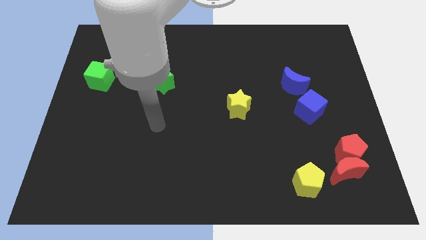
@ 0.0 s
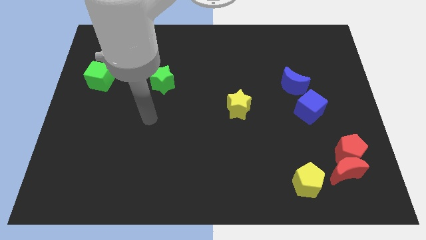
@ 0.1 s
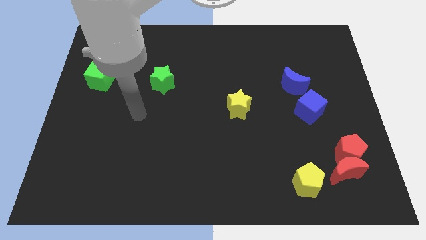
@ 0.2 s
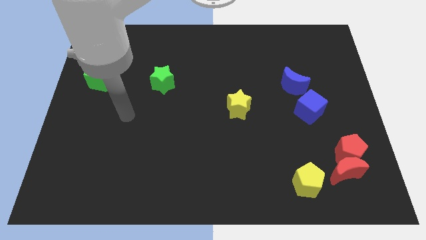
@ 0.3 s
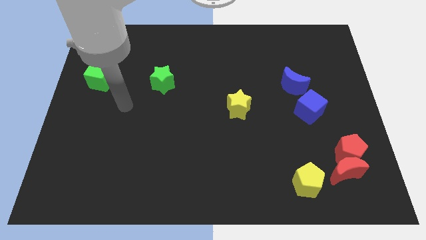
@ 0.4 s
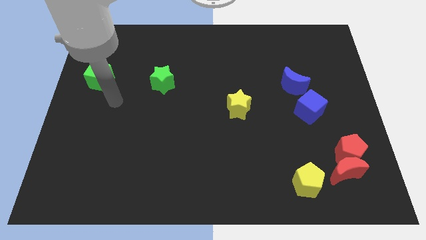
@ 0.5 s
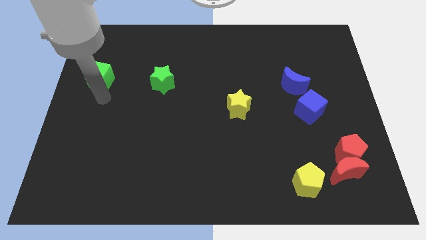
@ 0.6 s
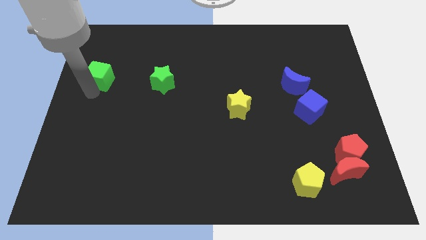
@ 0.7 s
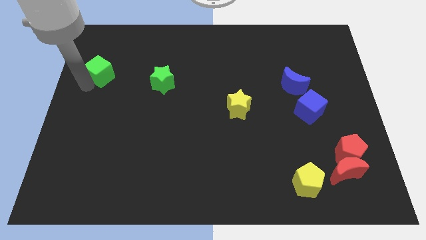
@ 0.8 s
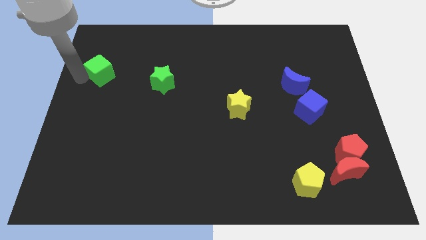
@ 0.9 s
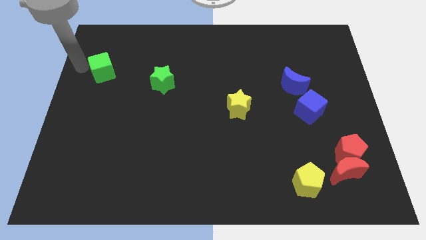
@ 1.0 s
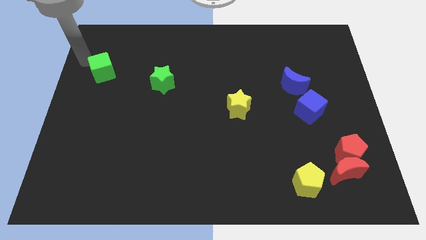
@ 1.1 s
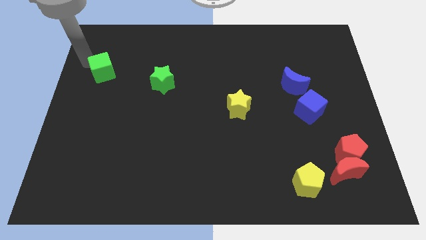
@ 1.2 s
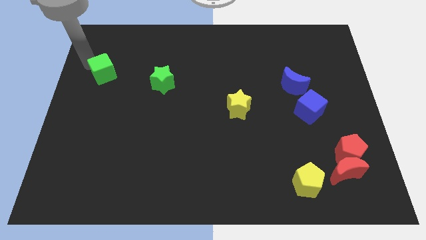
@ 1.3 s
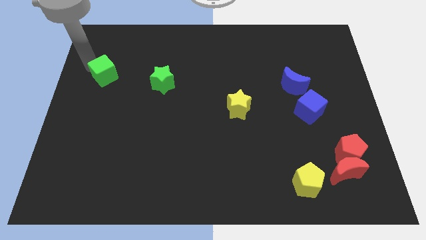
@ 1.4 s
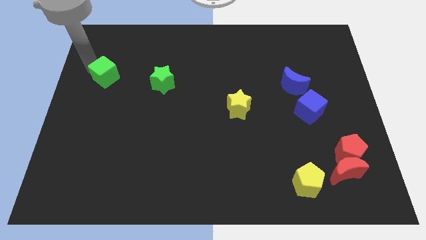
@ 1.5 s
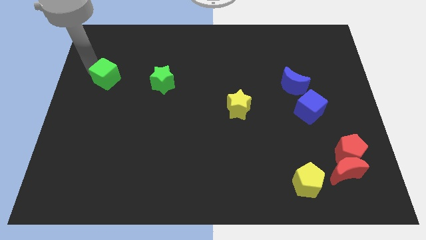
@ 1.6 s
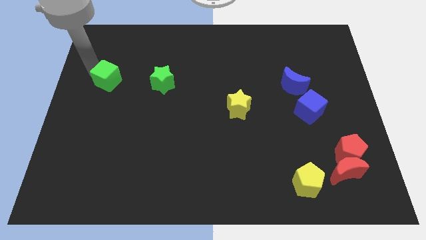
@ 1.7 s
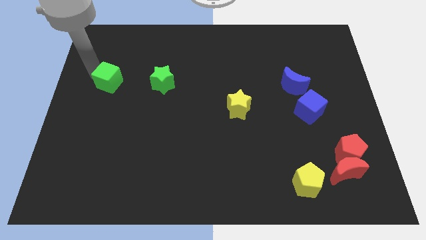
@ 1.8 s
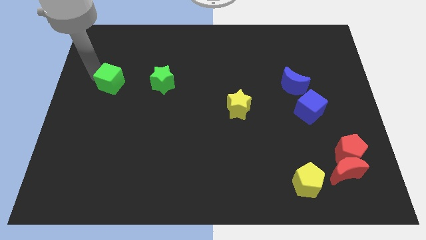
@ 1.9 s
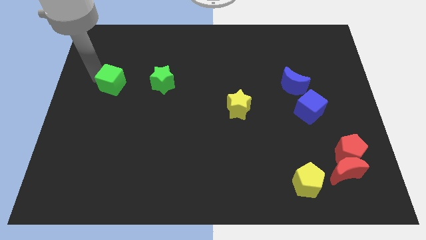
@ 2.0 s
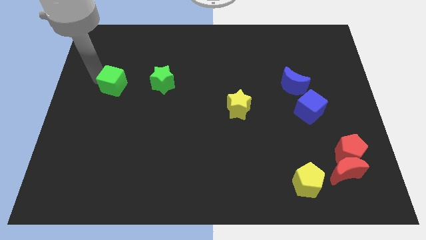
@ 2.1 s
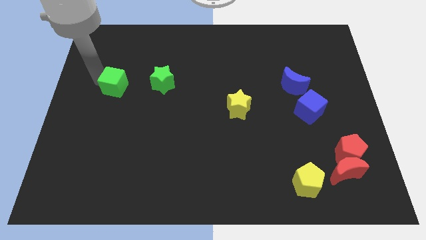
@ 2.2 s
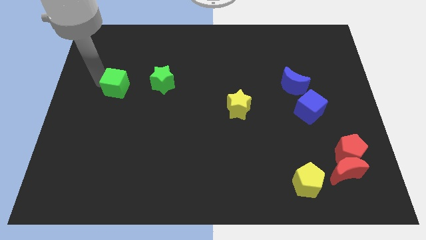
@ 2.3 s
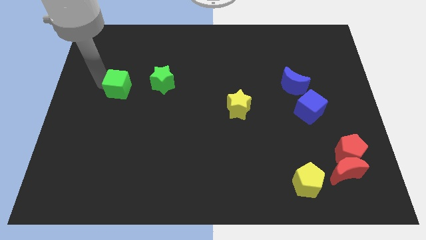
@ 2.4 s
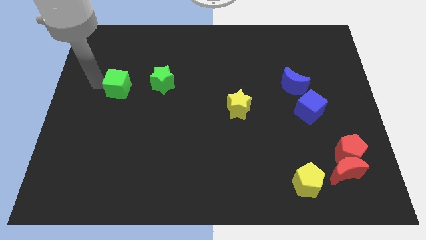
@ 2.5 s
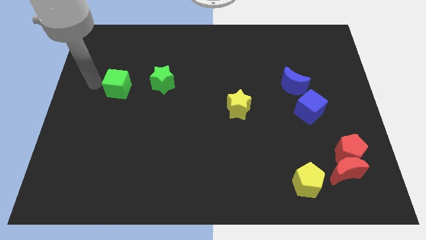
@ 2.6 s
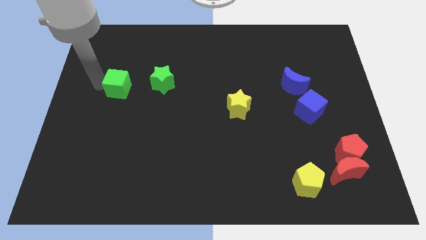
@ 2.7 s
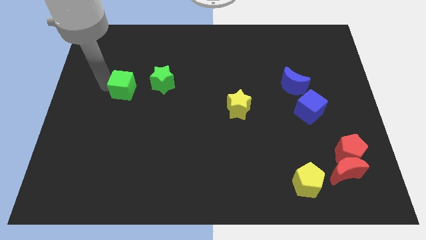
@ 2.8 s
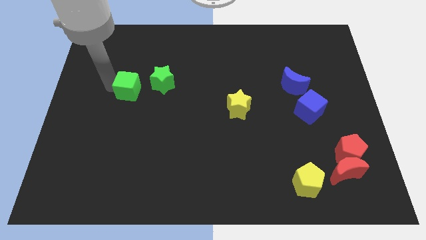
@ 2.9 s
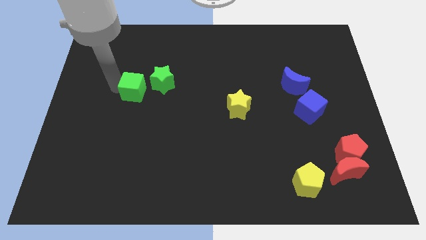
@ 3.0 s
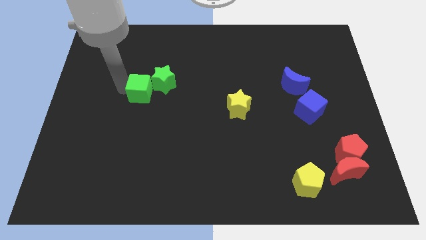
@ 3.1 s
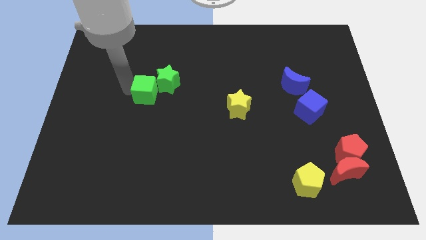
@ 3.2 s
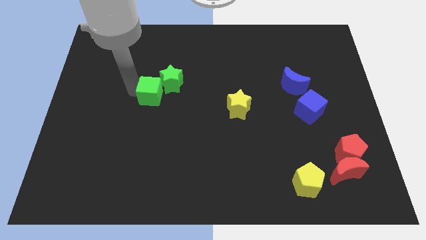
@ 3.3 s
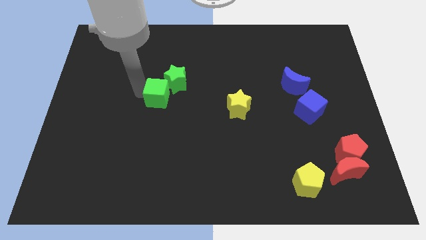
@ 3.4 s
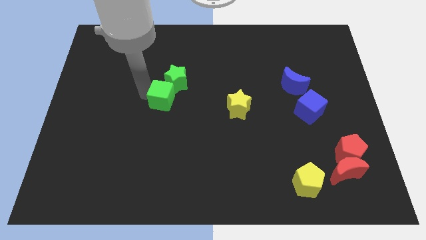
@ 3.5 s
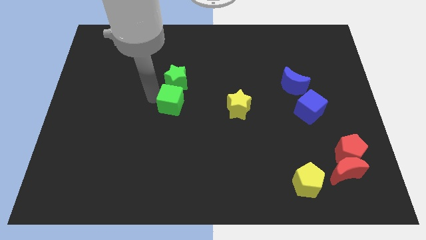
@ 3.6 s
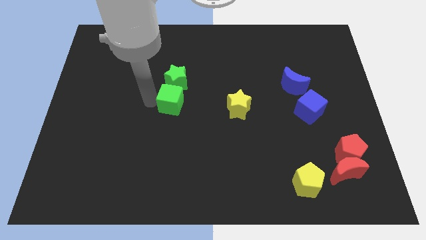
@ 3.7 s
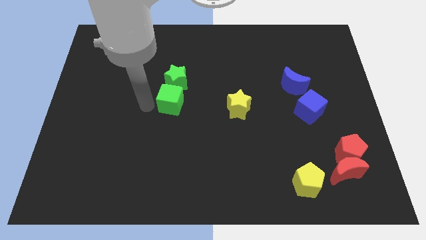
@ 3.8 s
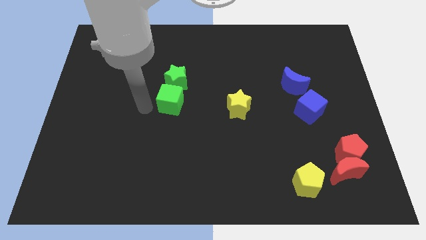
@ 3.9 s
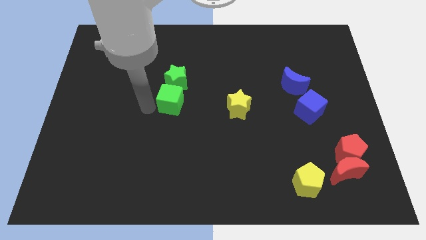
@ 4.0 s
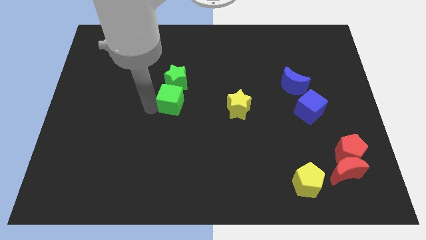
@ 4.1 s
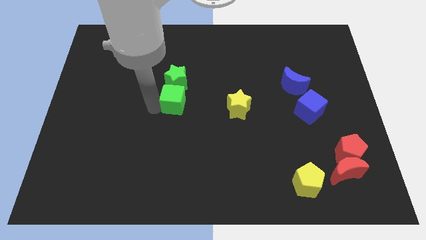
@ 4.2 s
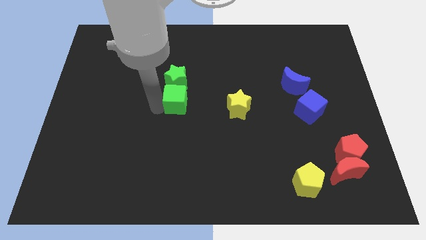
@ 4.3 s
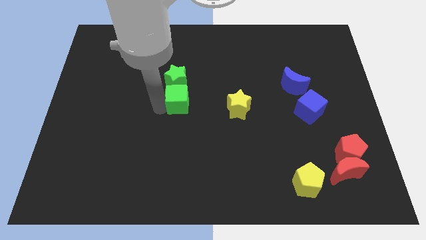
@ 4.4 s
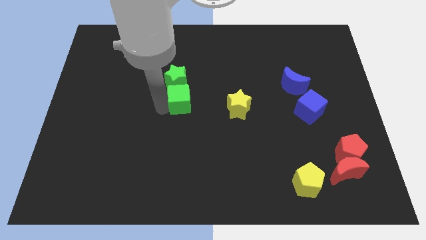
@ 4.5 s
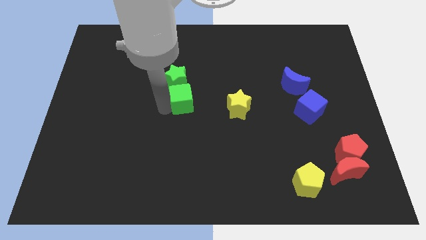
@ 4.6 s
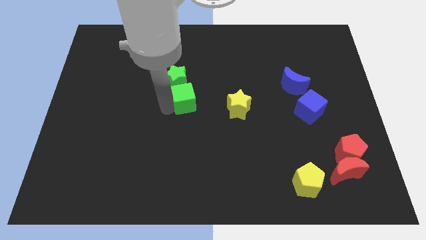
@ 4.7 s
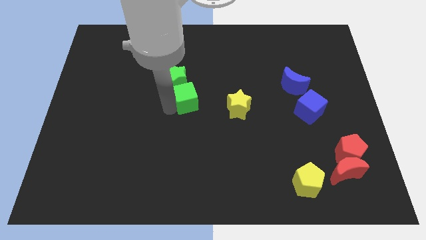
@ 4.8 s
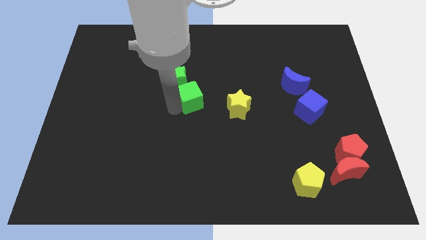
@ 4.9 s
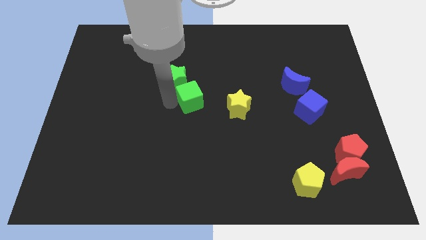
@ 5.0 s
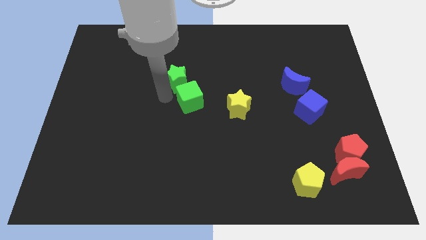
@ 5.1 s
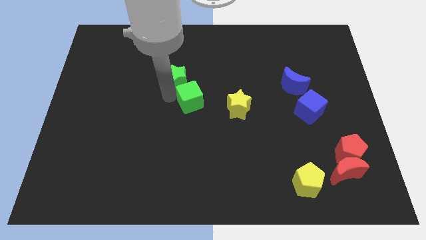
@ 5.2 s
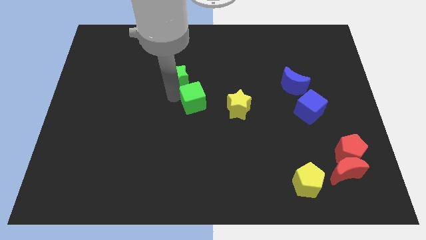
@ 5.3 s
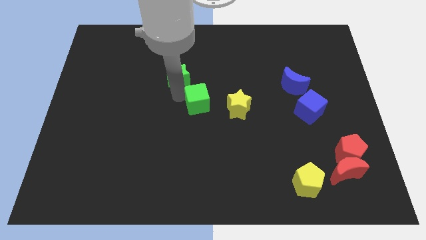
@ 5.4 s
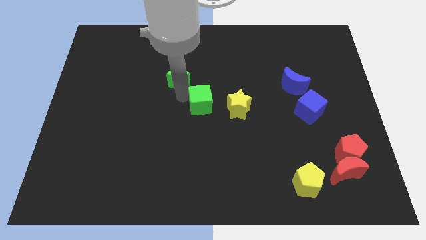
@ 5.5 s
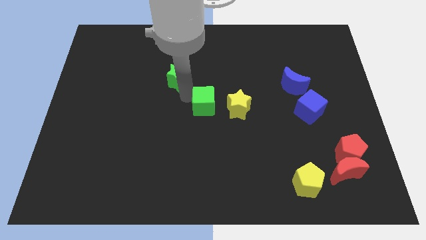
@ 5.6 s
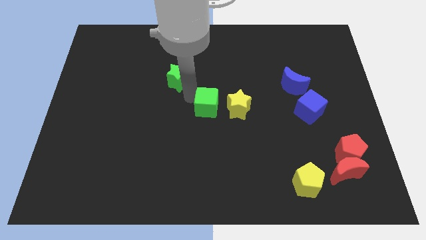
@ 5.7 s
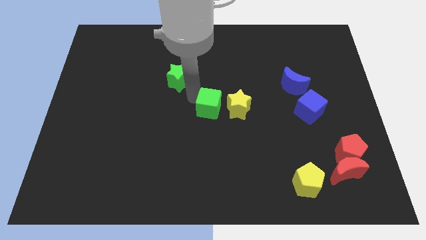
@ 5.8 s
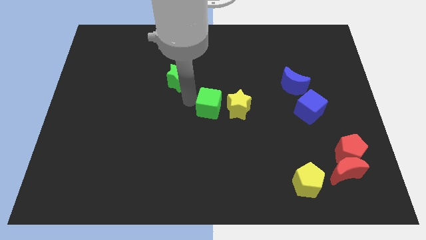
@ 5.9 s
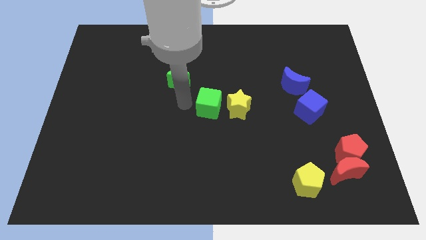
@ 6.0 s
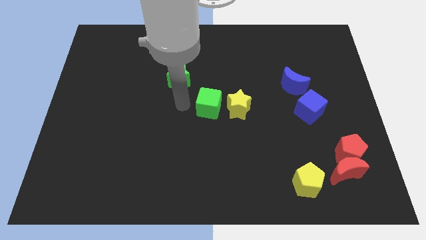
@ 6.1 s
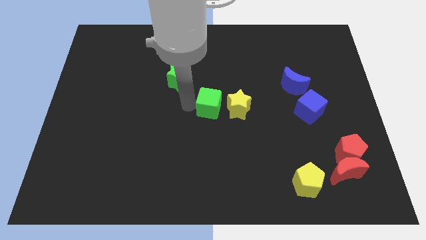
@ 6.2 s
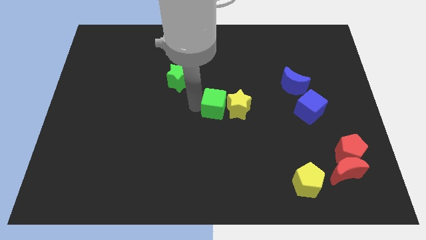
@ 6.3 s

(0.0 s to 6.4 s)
move the green cube close to the yellow star

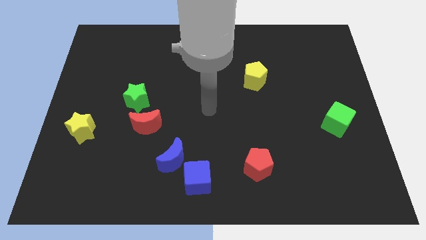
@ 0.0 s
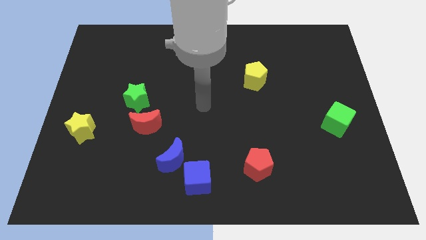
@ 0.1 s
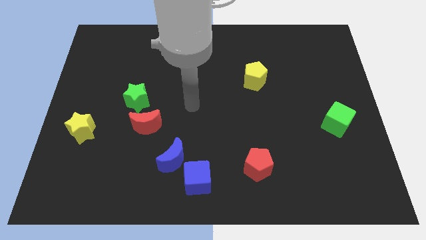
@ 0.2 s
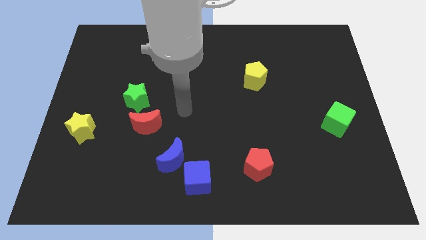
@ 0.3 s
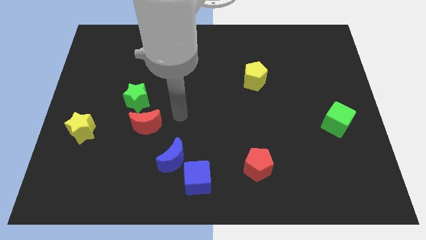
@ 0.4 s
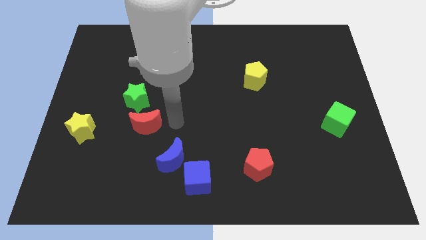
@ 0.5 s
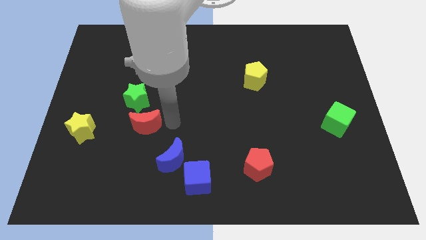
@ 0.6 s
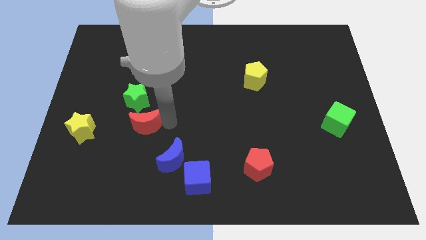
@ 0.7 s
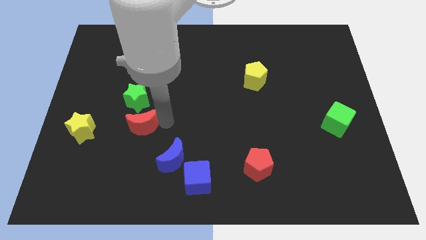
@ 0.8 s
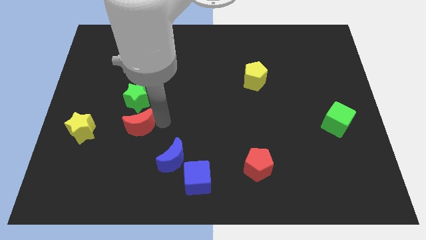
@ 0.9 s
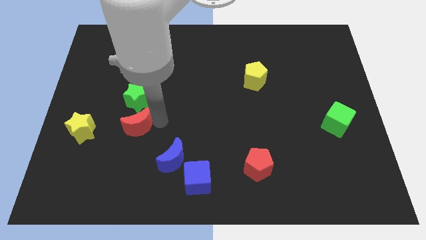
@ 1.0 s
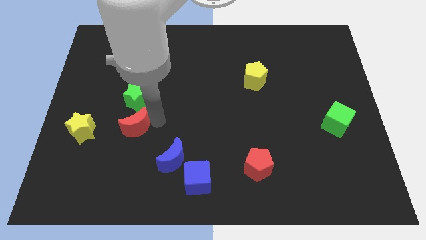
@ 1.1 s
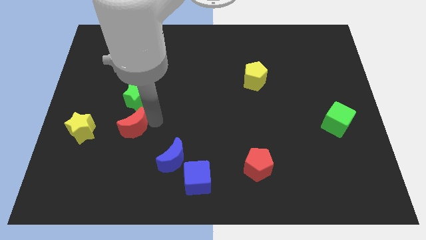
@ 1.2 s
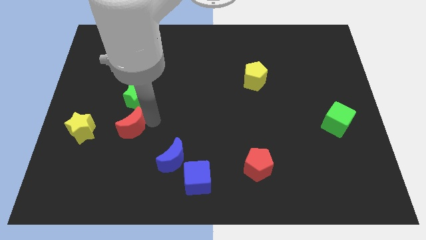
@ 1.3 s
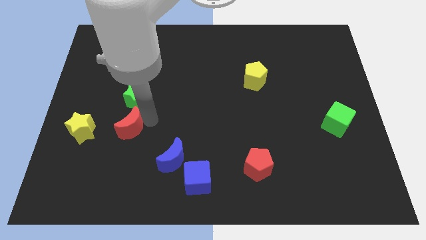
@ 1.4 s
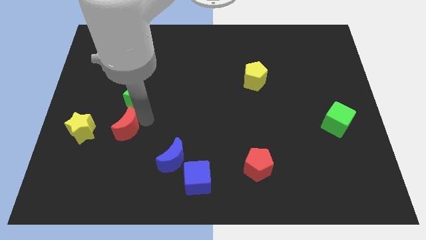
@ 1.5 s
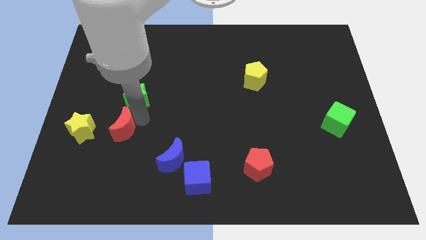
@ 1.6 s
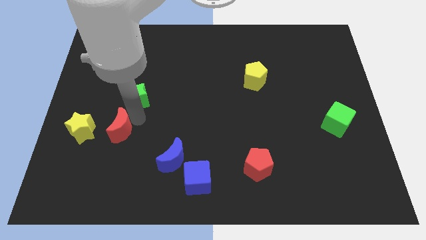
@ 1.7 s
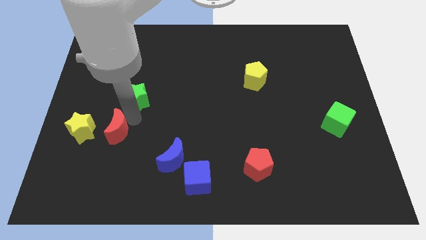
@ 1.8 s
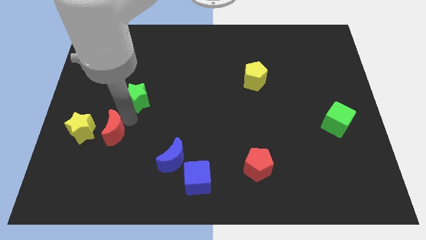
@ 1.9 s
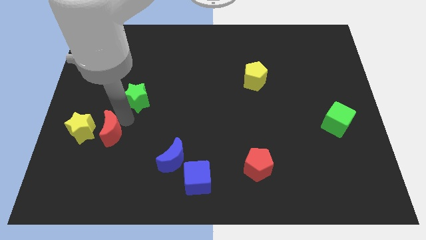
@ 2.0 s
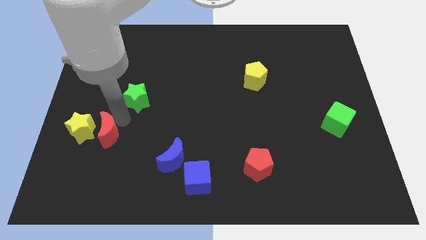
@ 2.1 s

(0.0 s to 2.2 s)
push the red moon towards the yellow star
